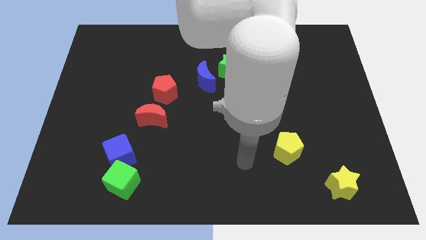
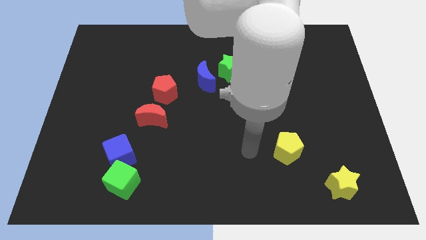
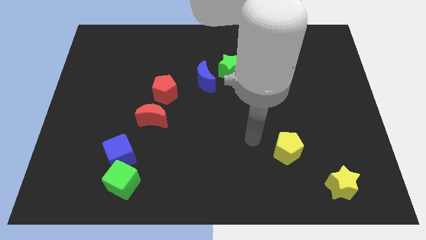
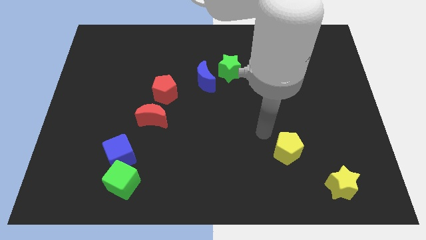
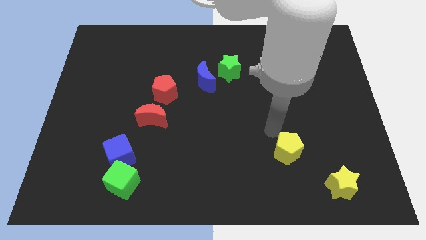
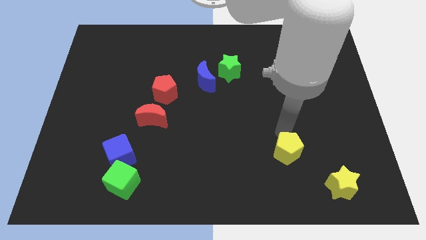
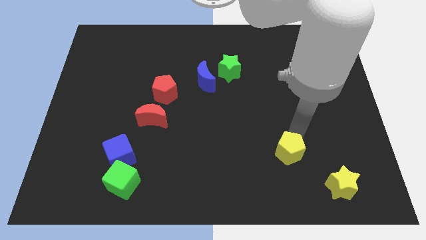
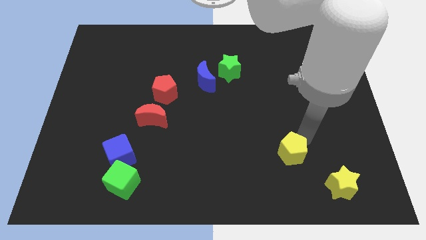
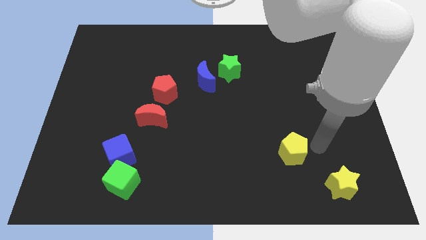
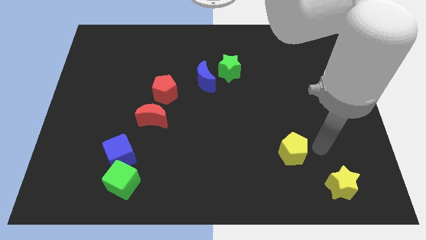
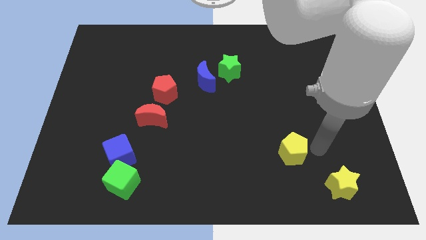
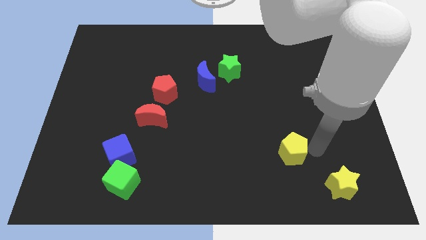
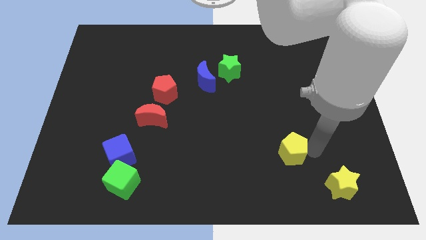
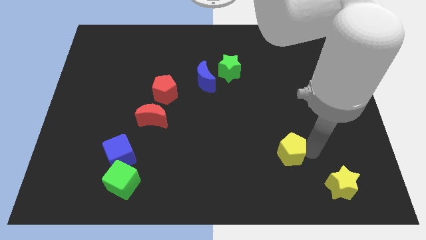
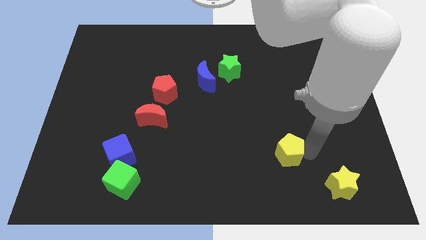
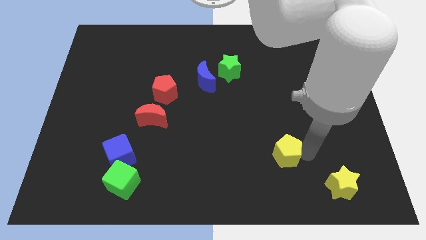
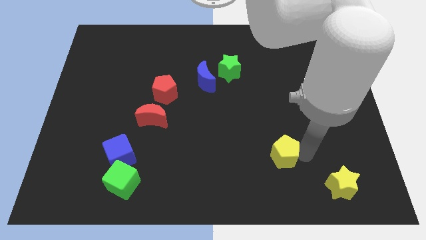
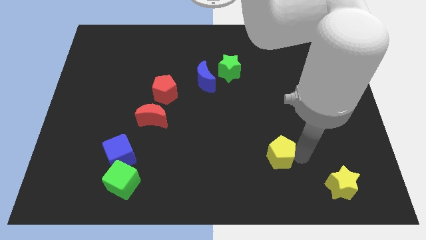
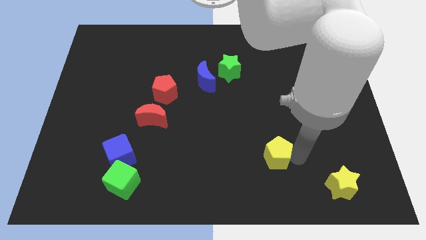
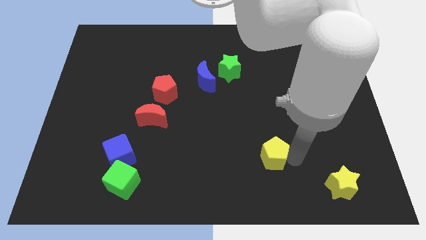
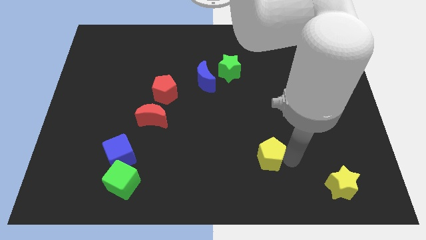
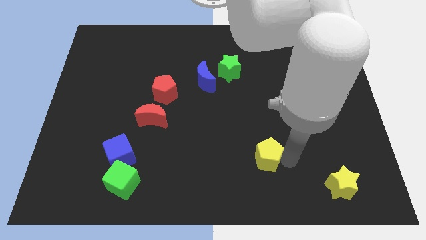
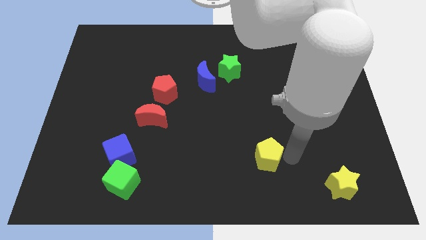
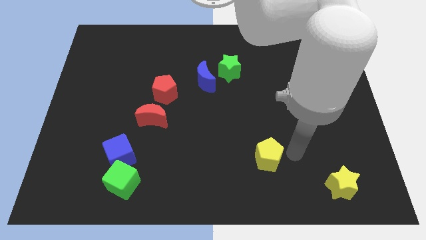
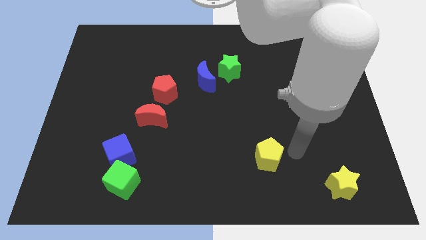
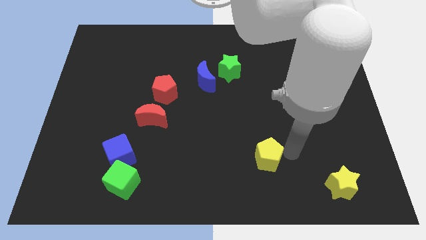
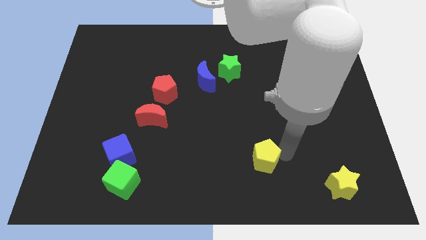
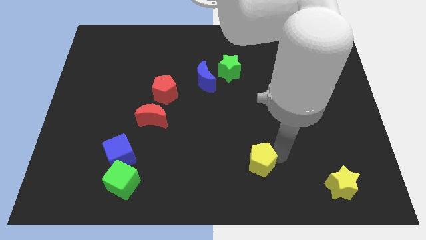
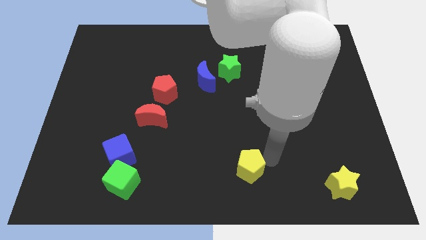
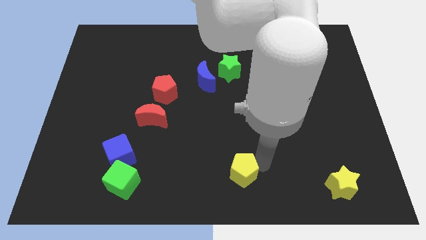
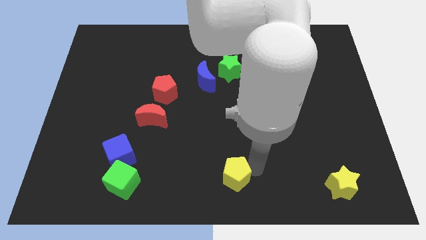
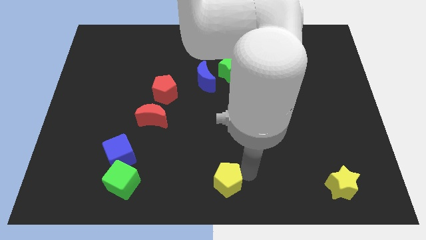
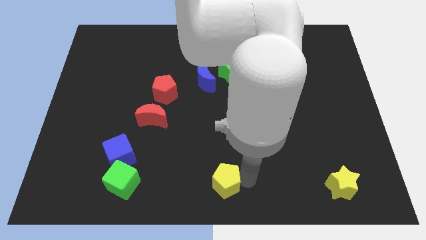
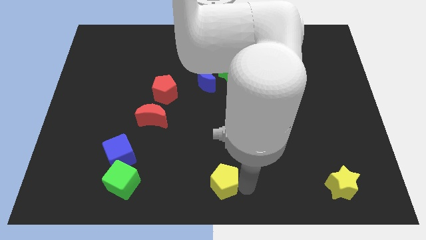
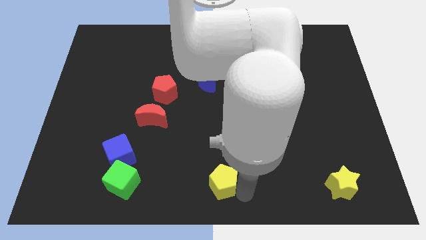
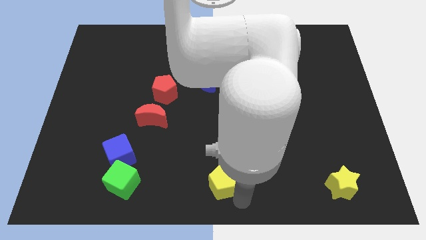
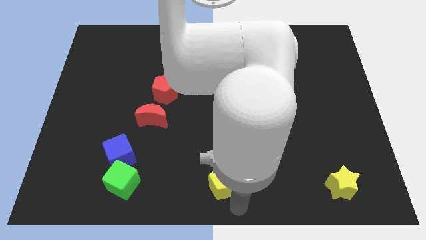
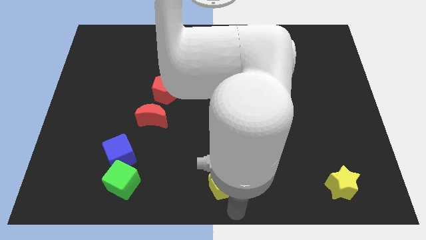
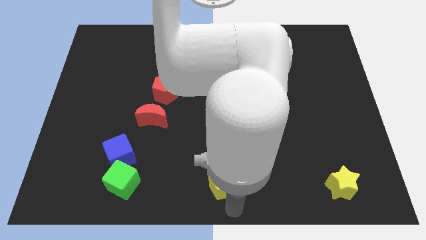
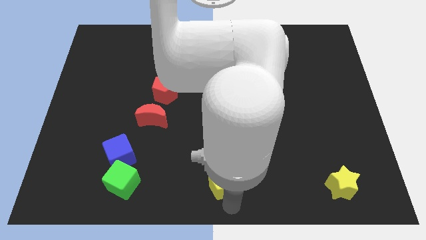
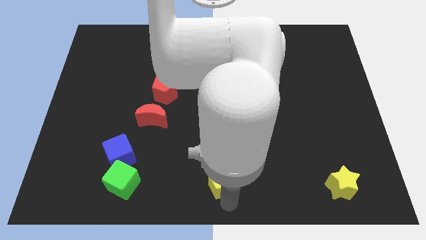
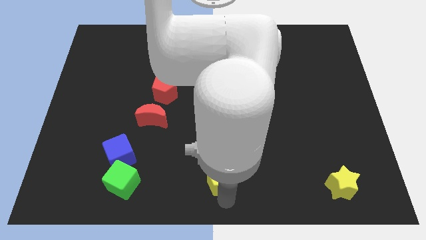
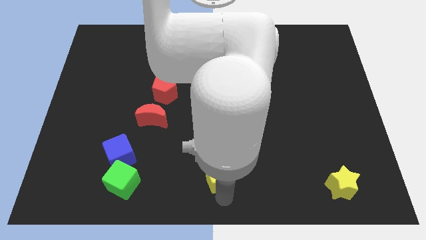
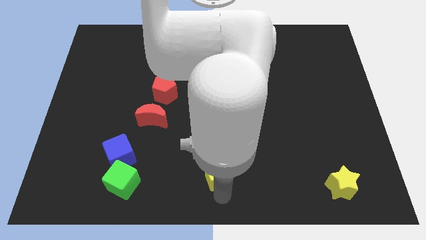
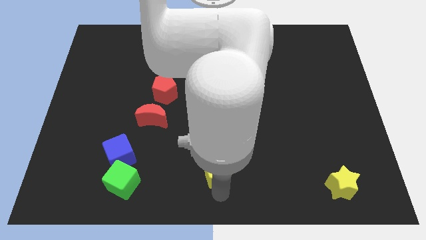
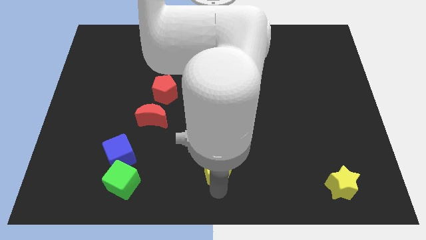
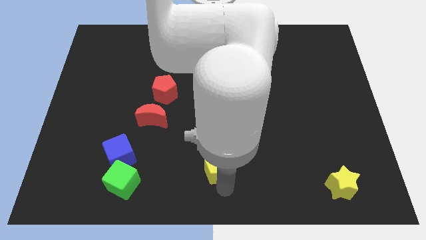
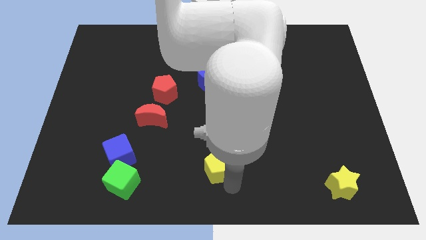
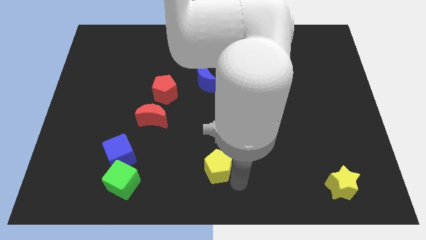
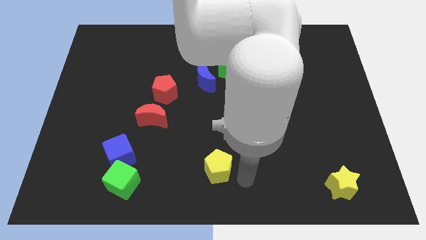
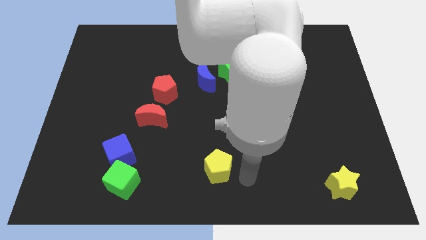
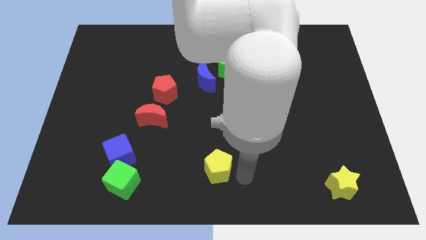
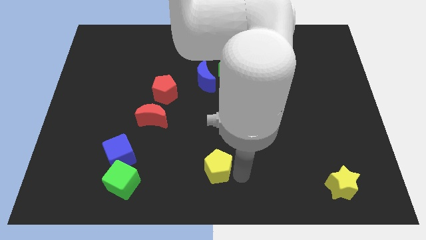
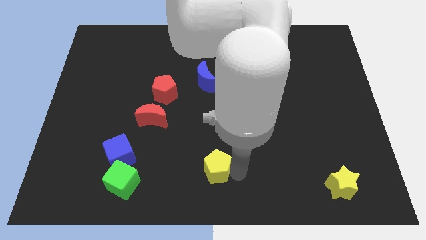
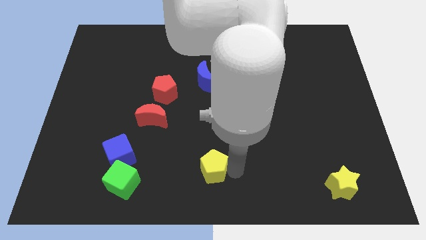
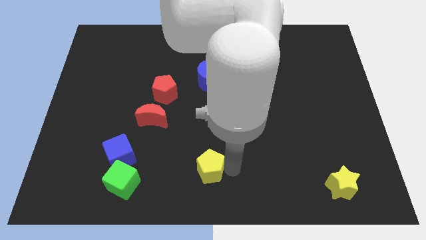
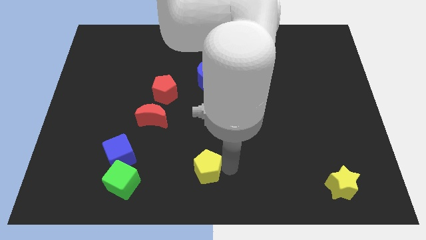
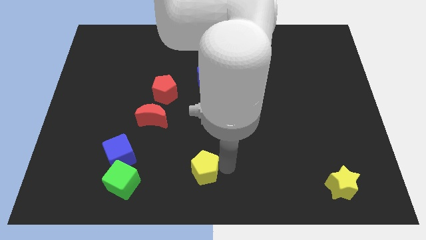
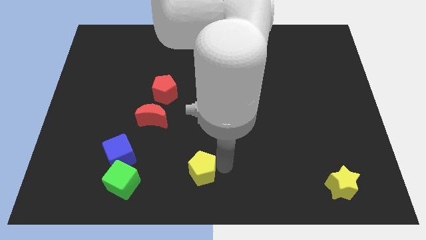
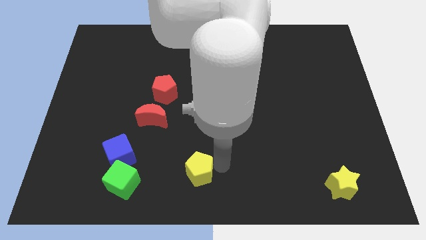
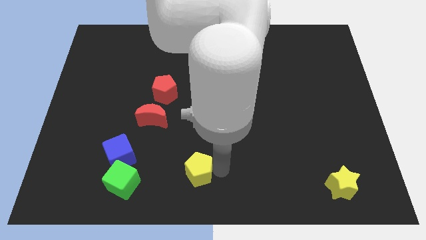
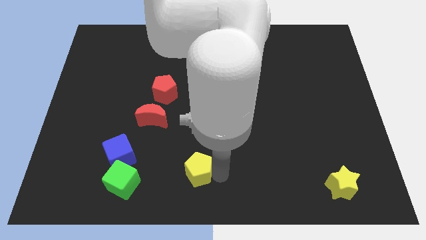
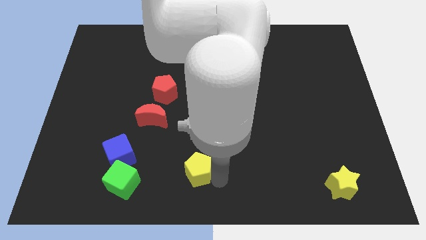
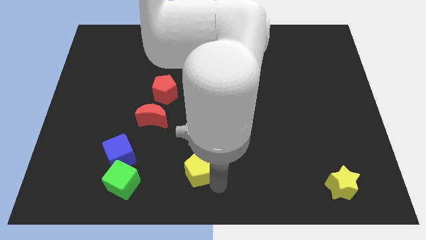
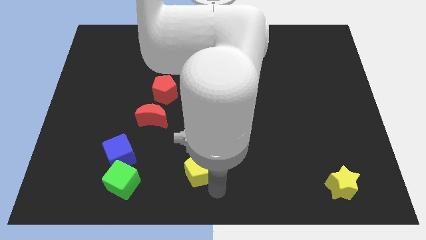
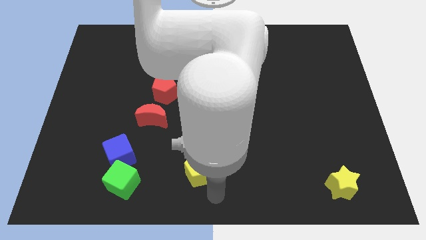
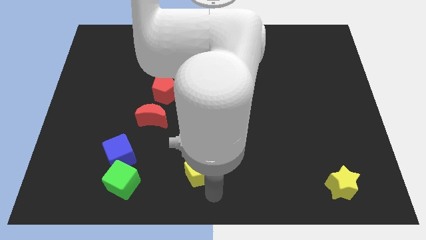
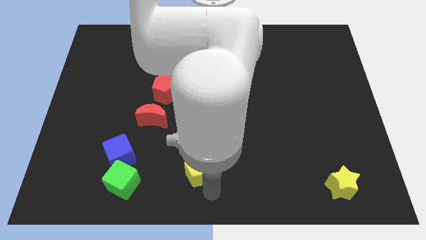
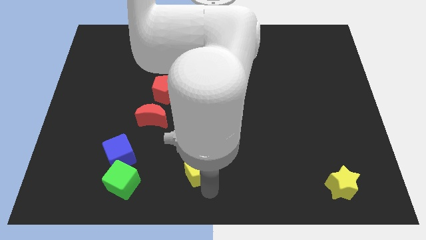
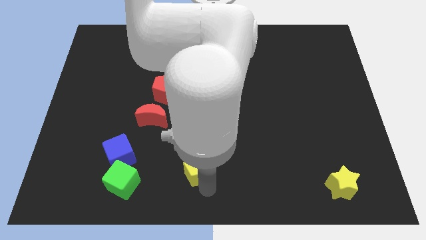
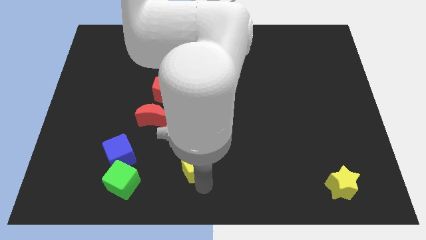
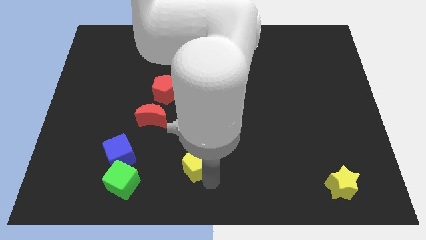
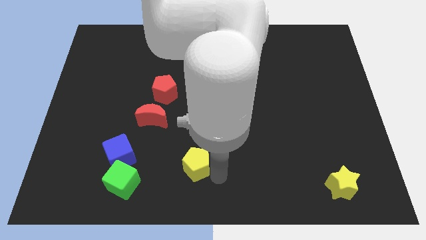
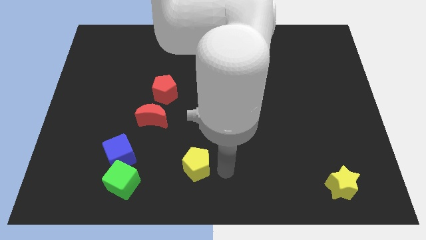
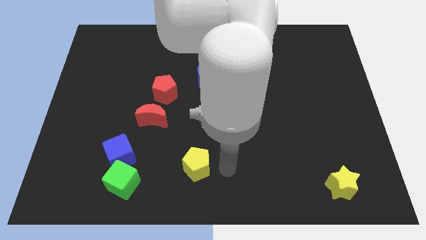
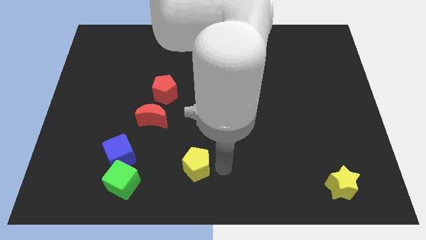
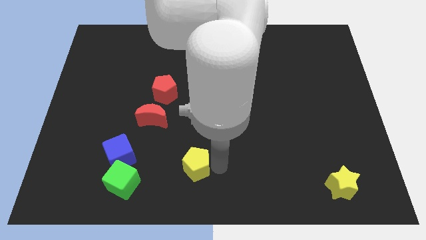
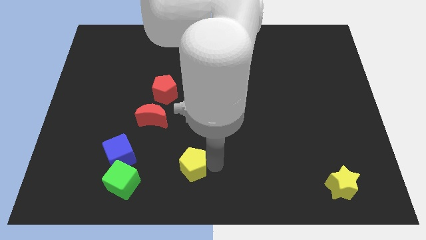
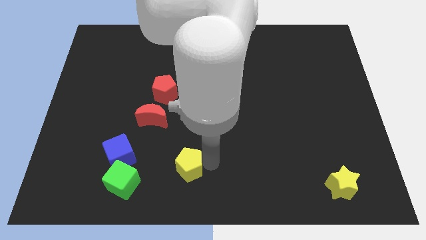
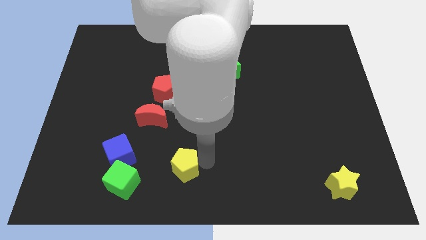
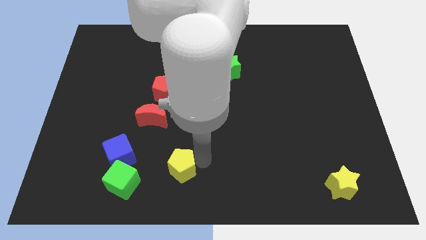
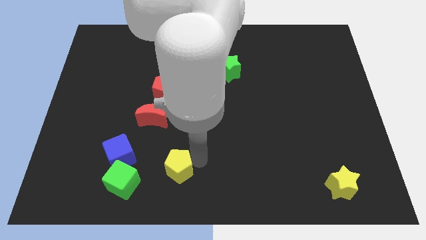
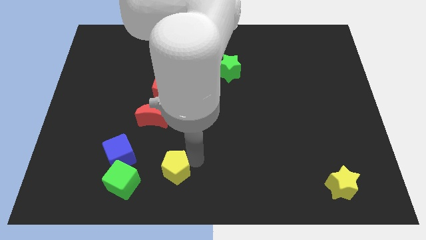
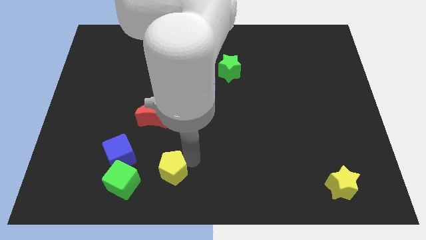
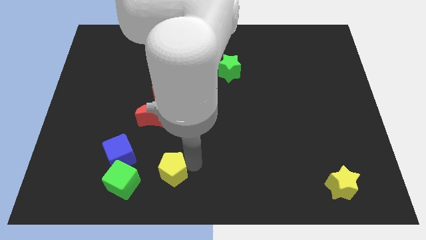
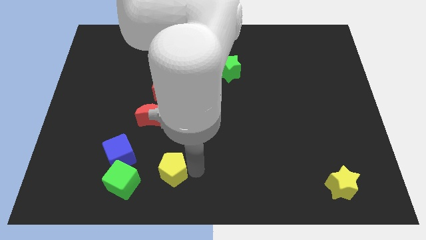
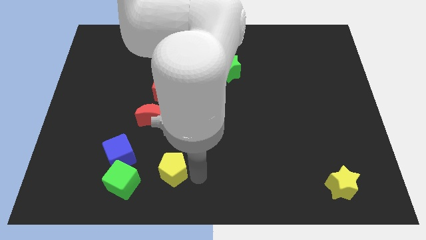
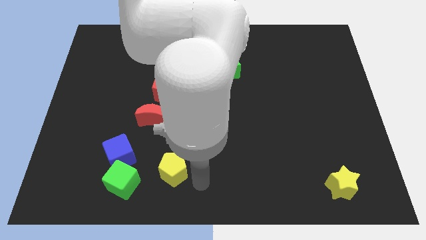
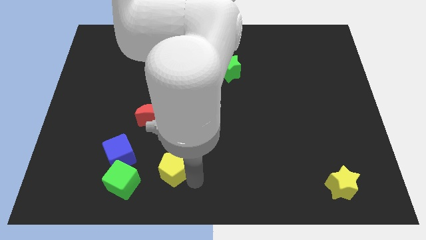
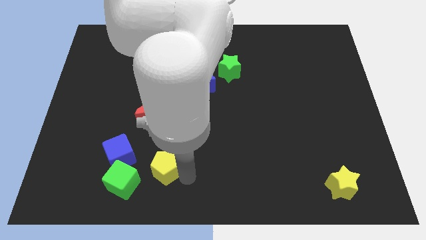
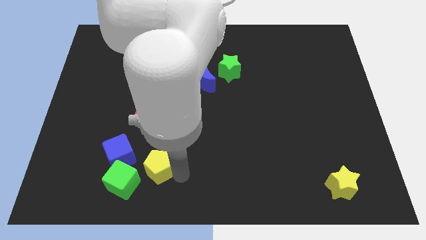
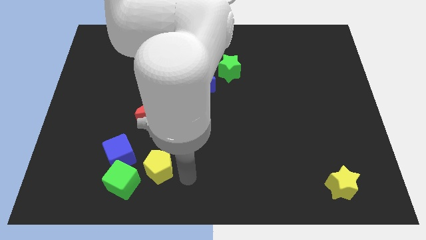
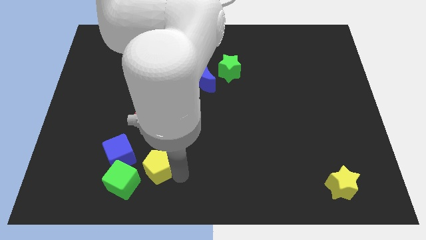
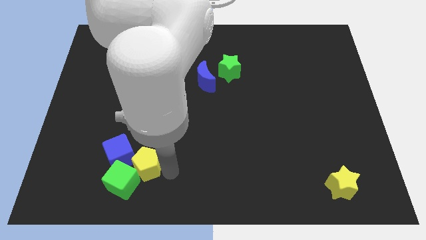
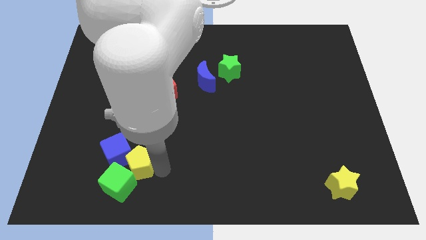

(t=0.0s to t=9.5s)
put the yellow pentagon towards the blue cube
